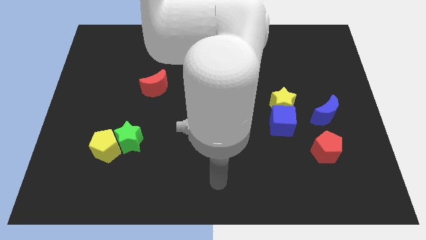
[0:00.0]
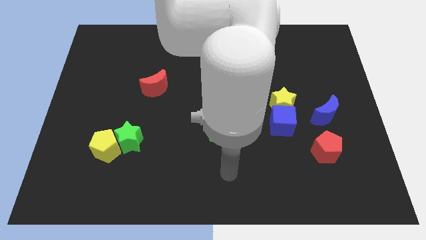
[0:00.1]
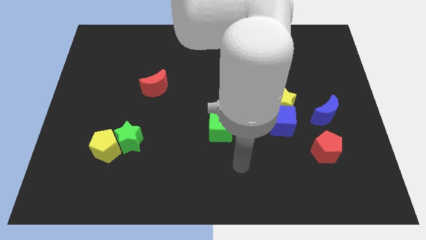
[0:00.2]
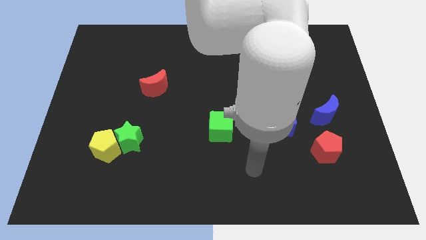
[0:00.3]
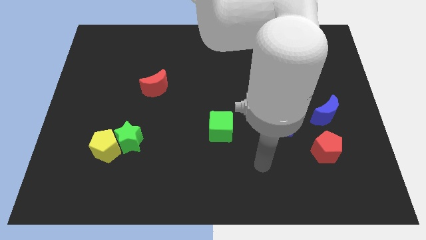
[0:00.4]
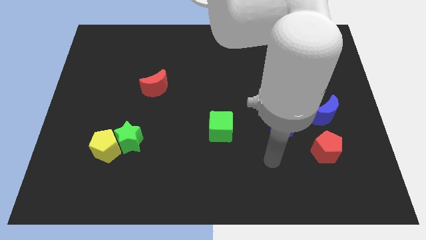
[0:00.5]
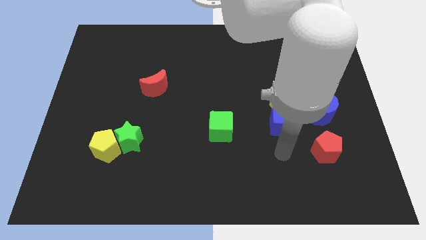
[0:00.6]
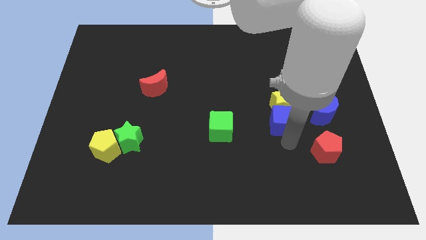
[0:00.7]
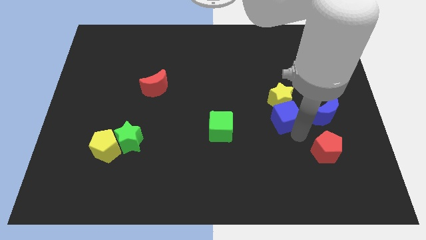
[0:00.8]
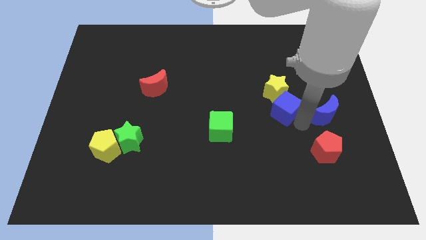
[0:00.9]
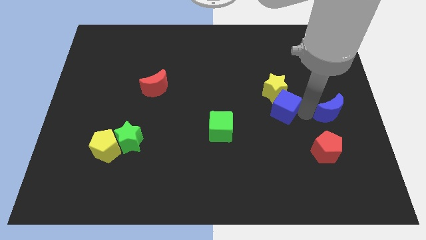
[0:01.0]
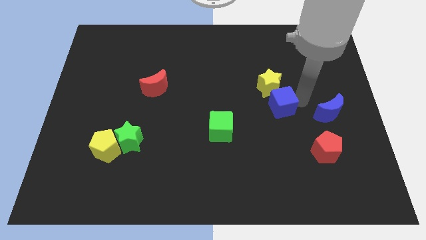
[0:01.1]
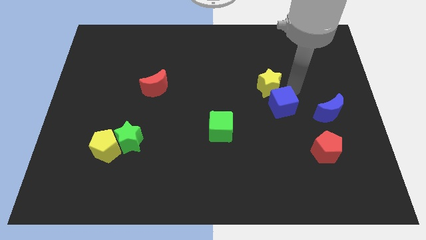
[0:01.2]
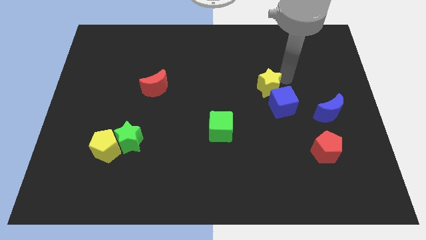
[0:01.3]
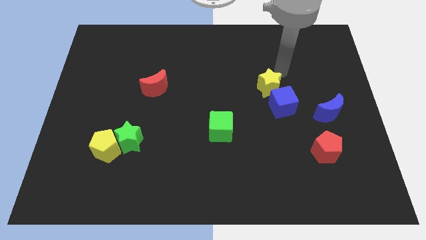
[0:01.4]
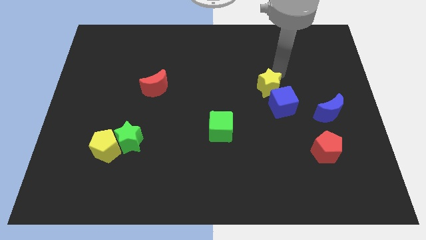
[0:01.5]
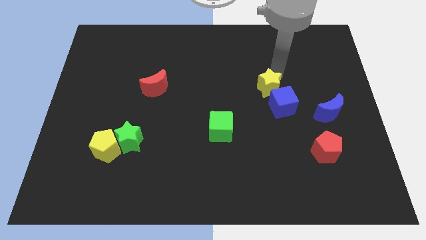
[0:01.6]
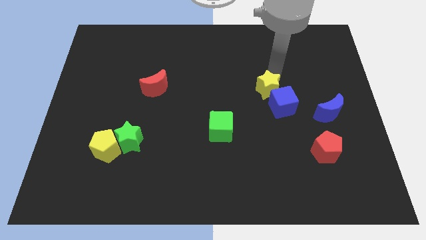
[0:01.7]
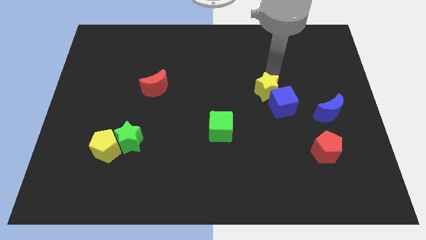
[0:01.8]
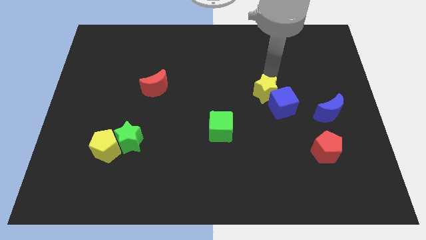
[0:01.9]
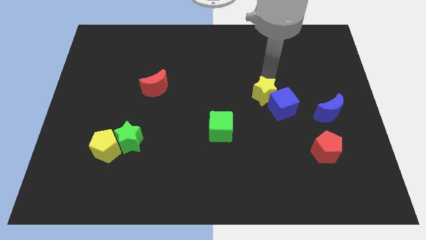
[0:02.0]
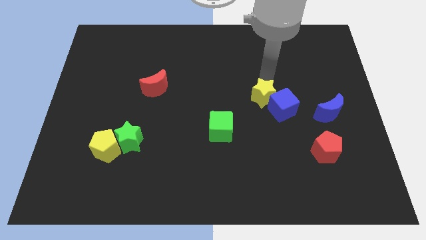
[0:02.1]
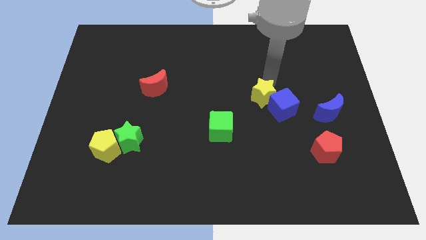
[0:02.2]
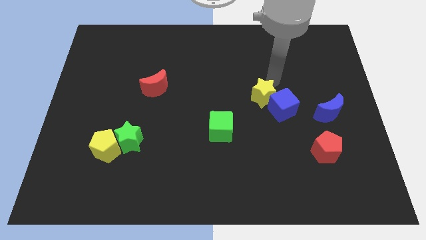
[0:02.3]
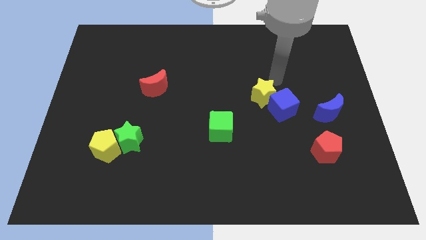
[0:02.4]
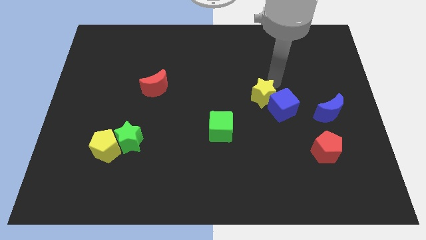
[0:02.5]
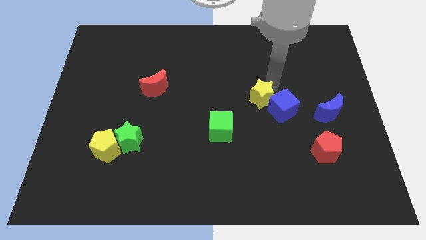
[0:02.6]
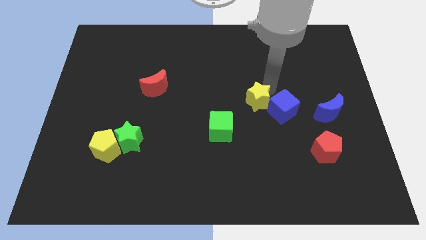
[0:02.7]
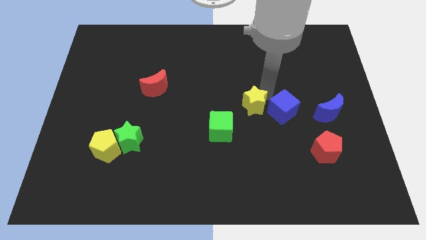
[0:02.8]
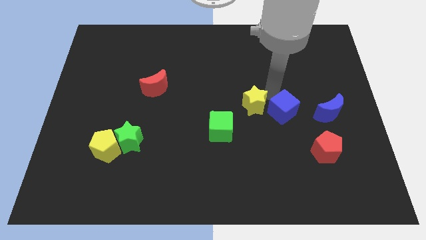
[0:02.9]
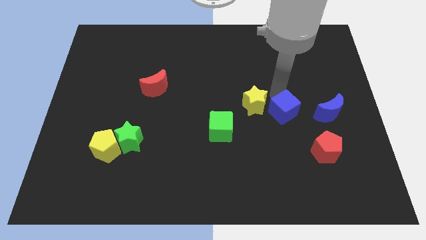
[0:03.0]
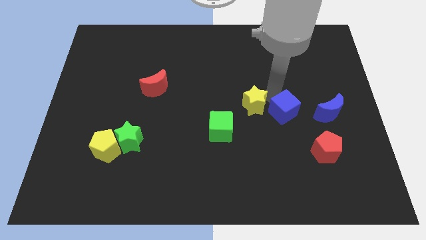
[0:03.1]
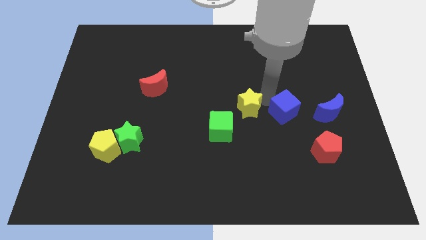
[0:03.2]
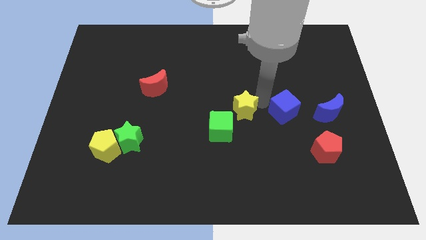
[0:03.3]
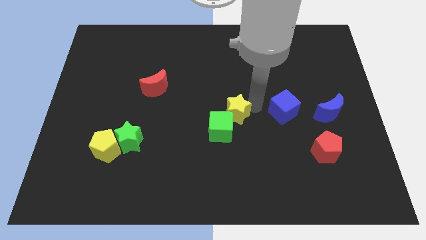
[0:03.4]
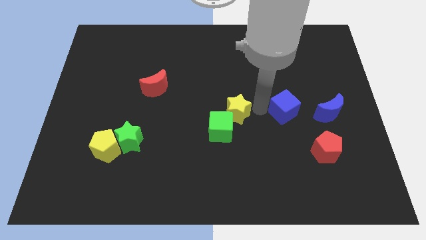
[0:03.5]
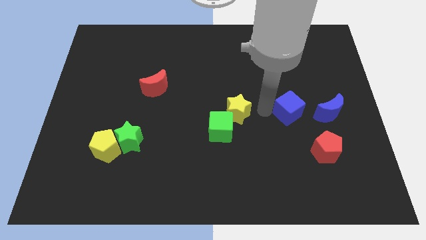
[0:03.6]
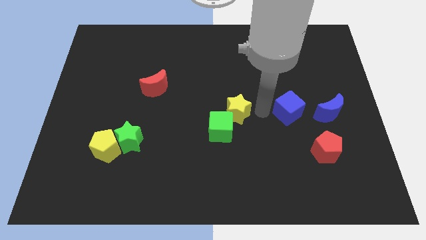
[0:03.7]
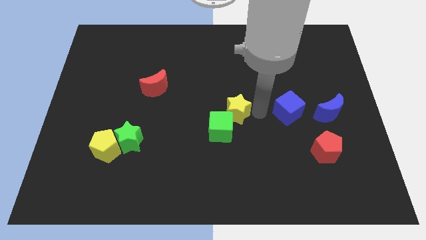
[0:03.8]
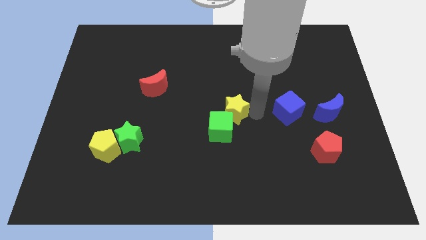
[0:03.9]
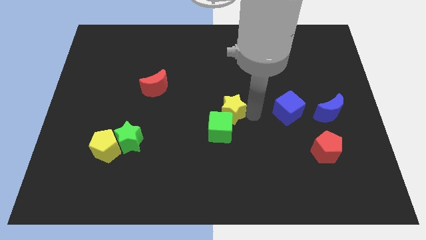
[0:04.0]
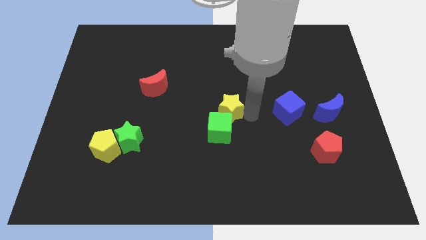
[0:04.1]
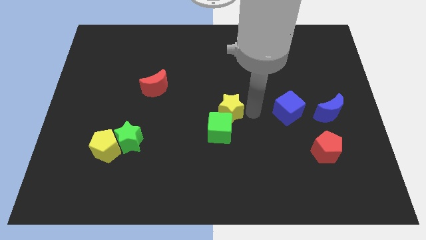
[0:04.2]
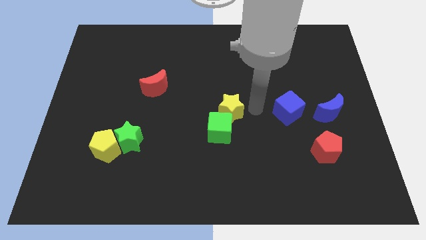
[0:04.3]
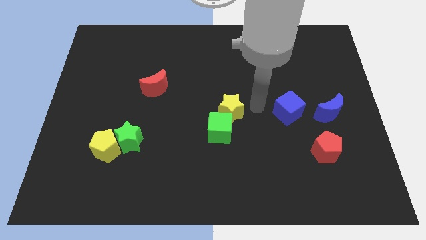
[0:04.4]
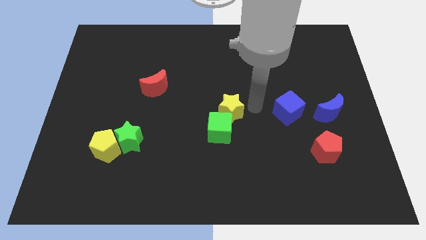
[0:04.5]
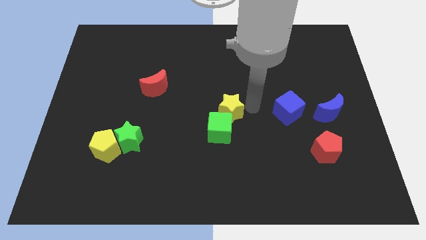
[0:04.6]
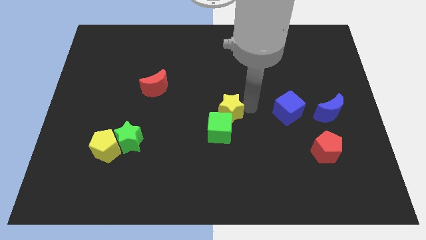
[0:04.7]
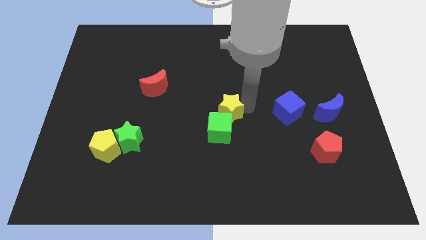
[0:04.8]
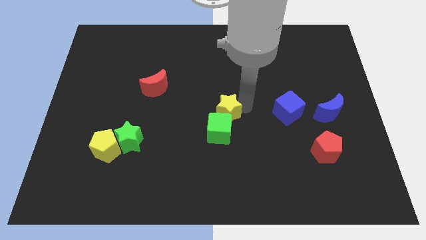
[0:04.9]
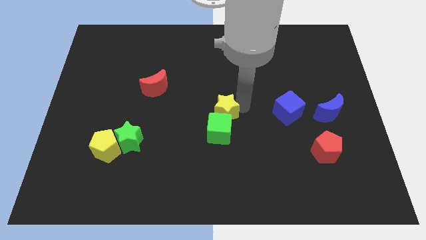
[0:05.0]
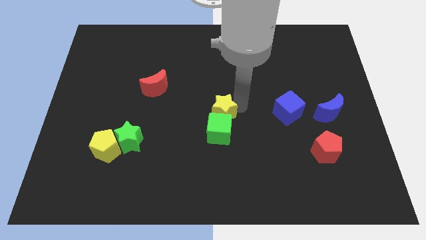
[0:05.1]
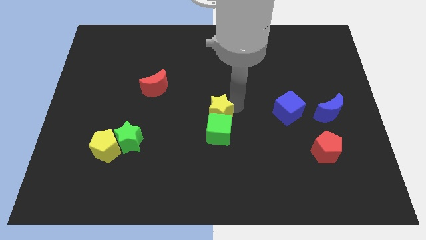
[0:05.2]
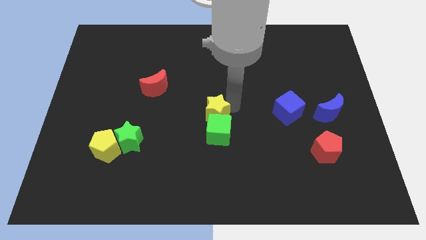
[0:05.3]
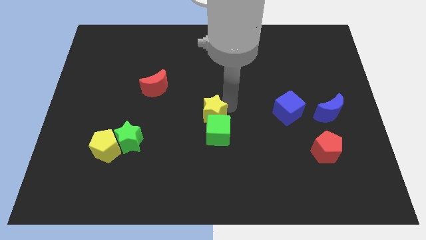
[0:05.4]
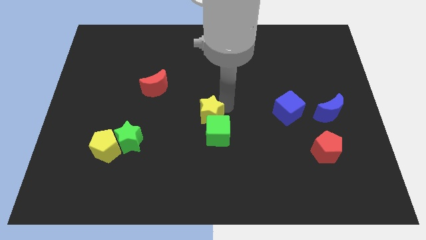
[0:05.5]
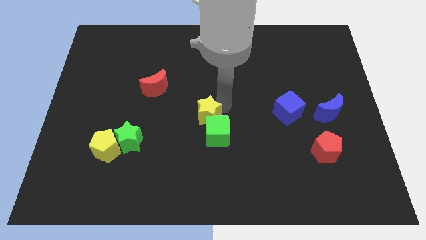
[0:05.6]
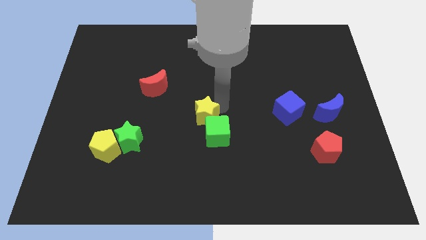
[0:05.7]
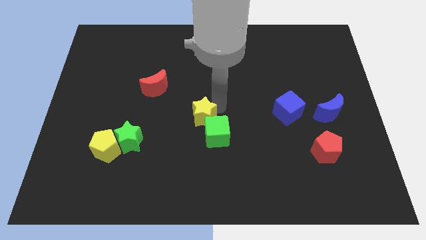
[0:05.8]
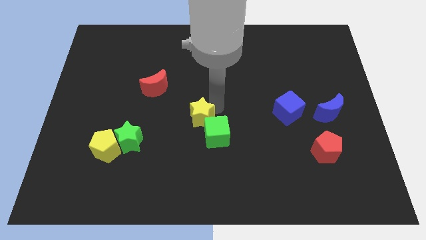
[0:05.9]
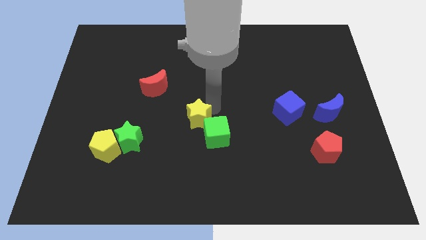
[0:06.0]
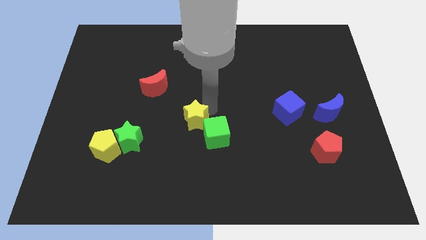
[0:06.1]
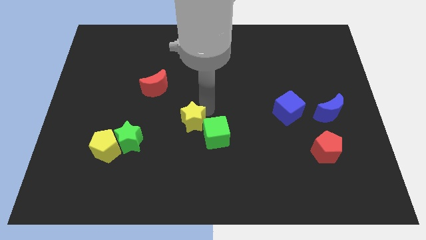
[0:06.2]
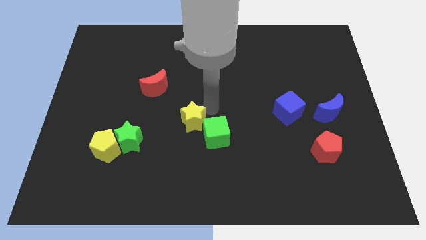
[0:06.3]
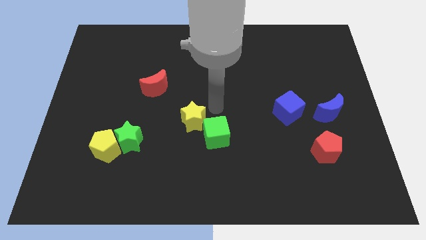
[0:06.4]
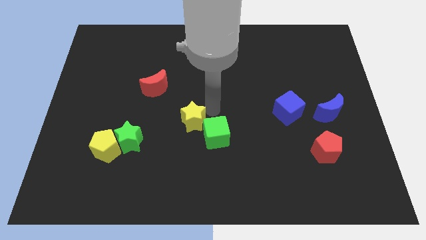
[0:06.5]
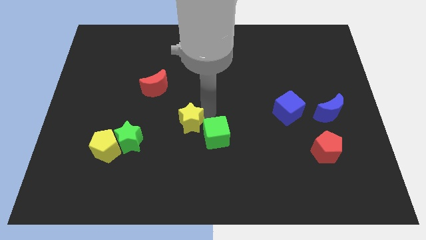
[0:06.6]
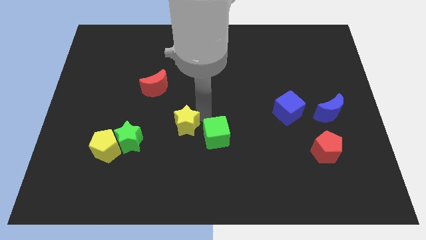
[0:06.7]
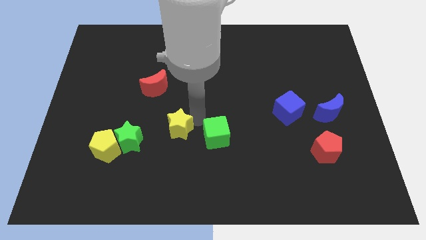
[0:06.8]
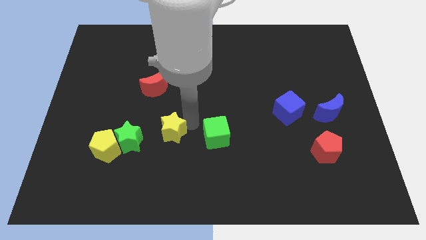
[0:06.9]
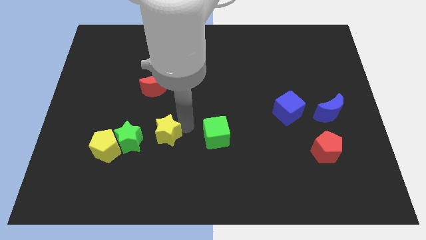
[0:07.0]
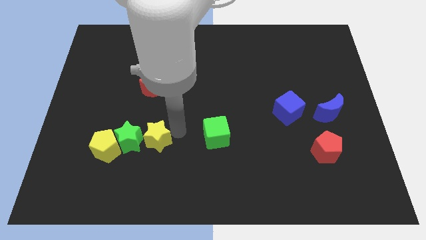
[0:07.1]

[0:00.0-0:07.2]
slide the yellow star close to the green star

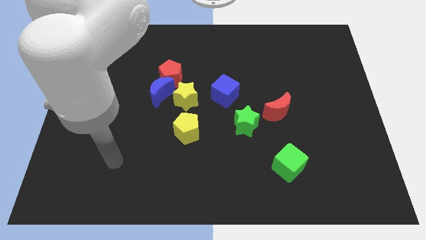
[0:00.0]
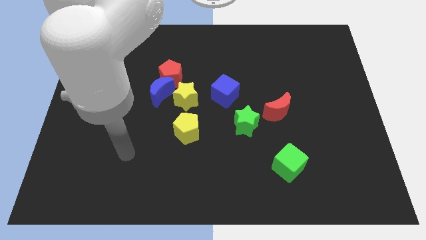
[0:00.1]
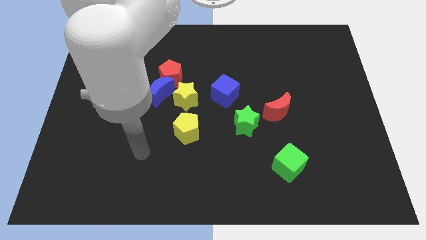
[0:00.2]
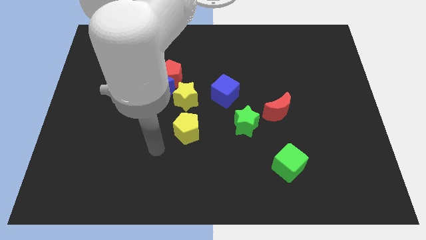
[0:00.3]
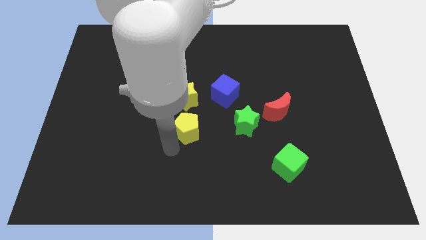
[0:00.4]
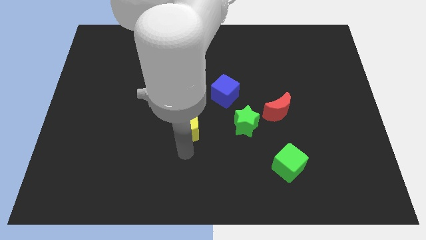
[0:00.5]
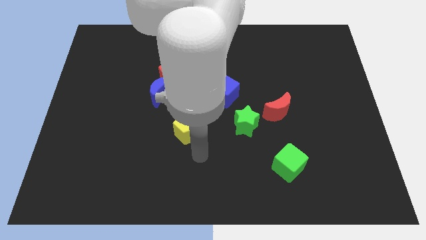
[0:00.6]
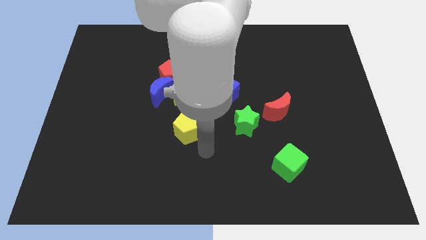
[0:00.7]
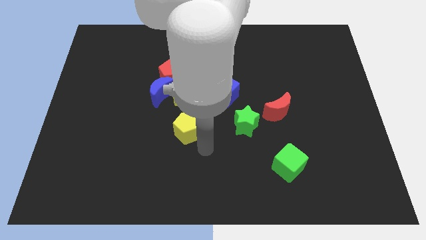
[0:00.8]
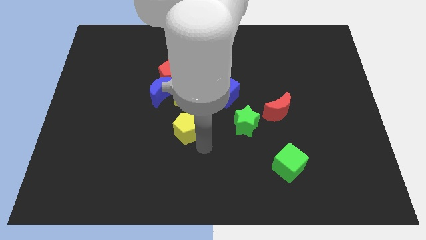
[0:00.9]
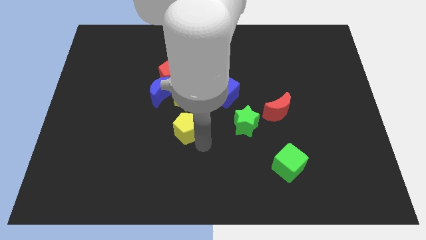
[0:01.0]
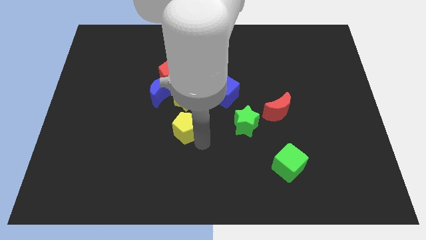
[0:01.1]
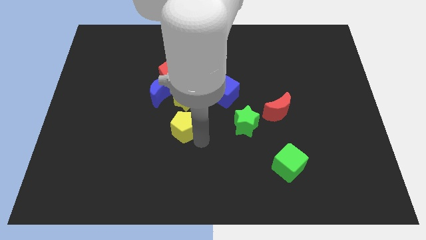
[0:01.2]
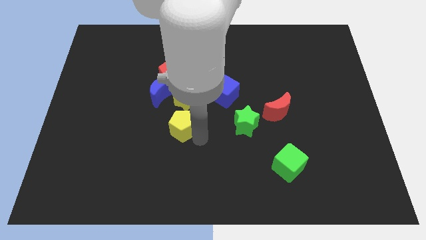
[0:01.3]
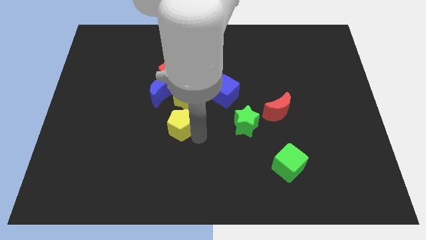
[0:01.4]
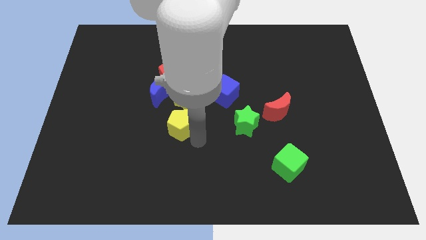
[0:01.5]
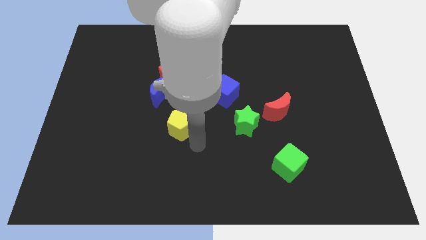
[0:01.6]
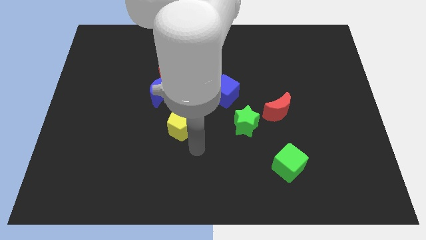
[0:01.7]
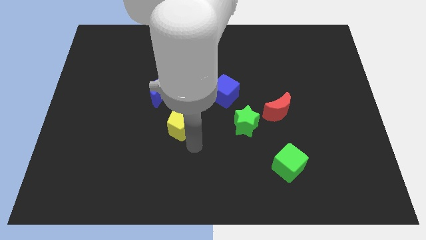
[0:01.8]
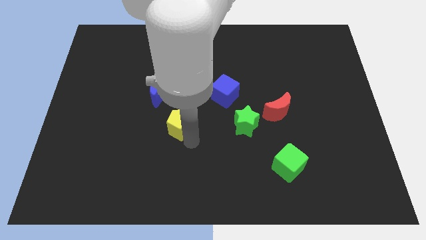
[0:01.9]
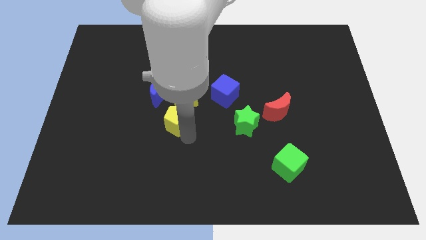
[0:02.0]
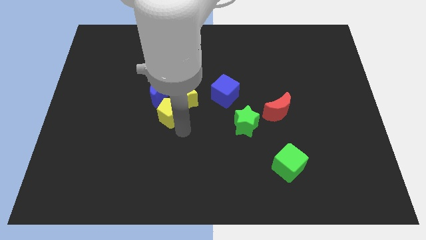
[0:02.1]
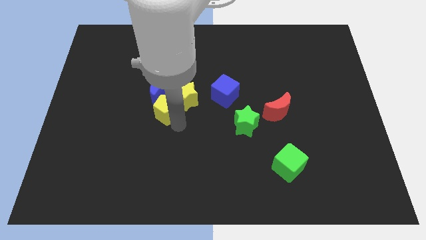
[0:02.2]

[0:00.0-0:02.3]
move the yellow pentagon towards the blue moon
